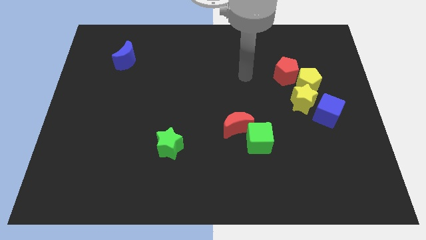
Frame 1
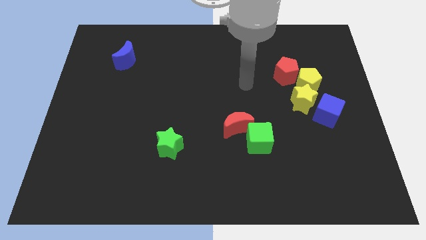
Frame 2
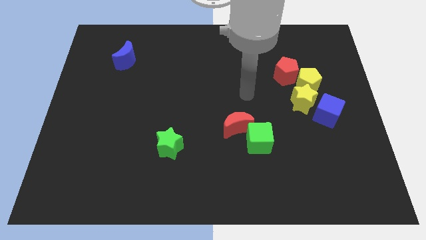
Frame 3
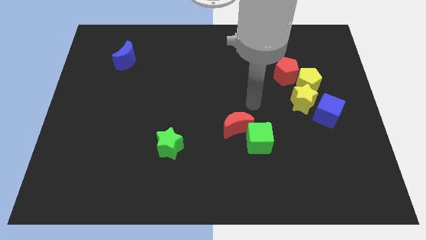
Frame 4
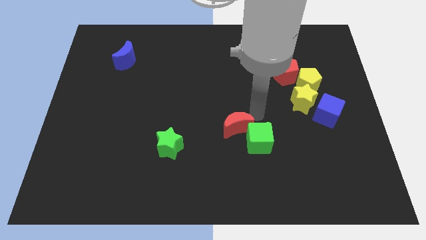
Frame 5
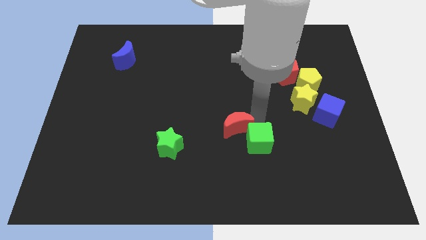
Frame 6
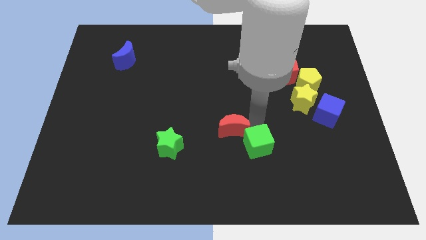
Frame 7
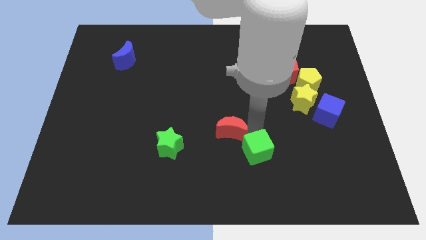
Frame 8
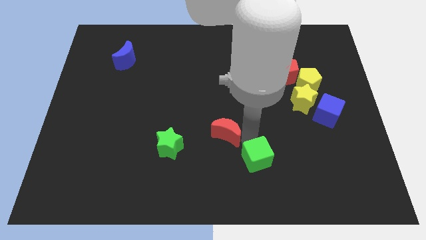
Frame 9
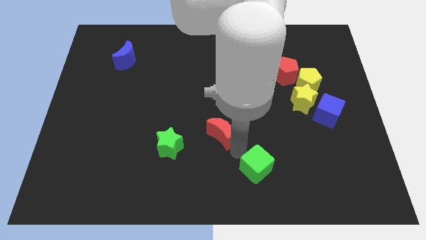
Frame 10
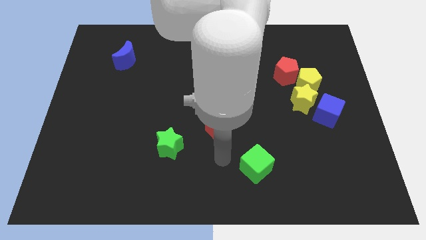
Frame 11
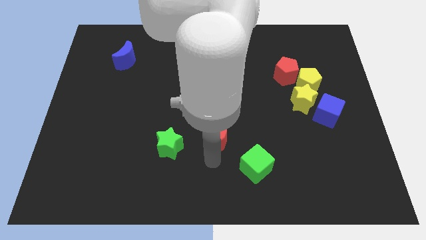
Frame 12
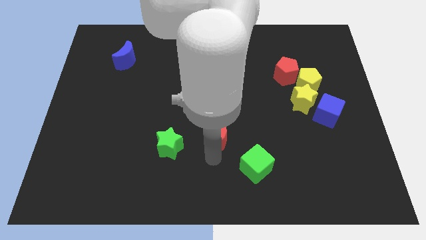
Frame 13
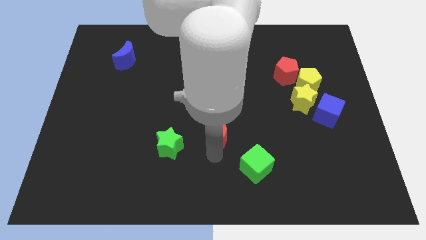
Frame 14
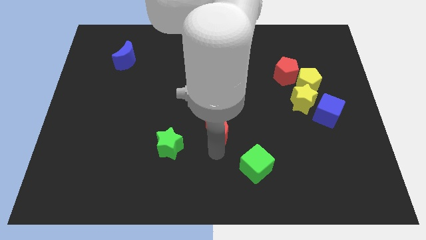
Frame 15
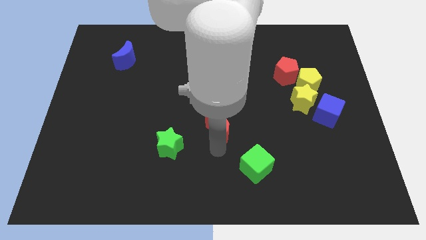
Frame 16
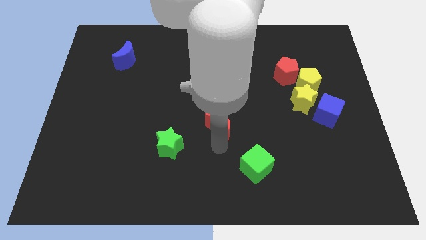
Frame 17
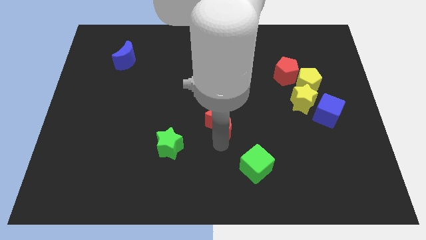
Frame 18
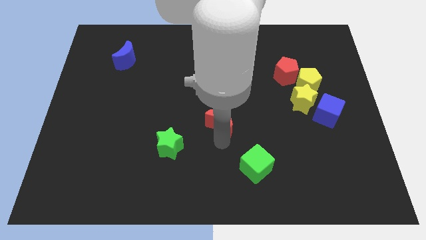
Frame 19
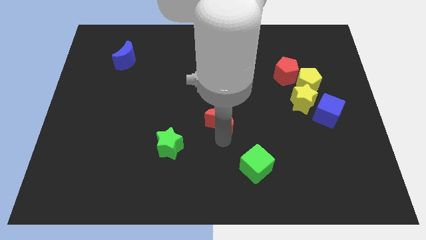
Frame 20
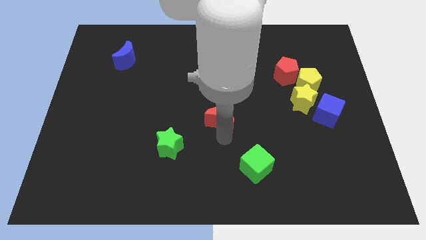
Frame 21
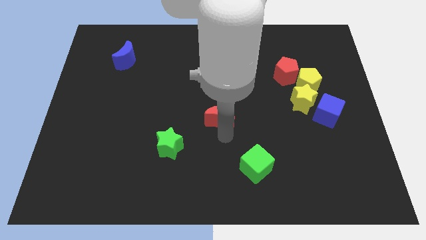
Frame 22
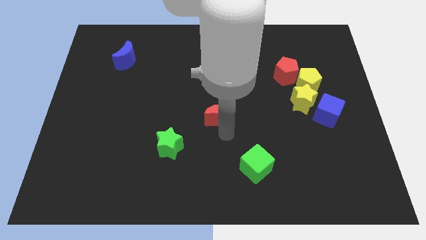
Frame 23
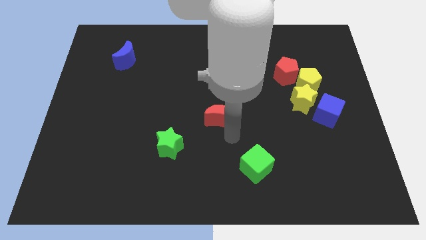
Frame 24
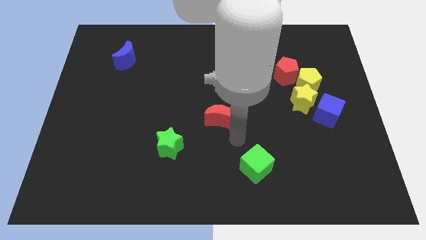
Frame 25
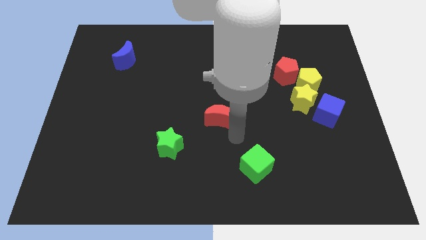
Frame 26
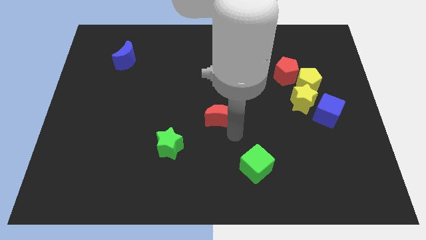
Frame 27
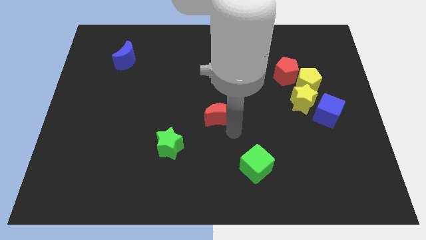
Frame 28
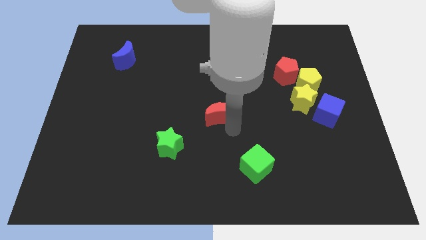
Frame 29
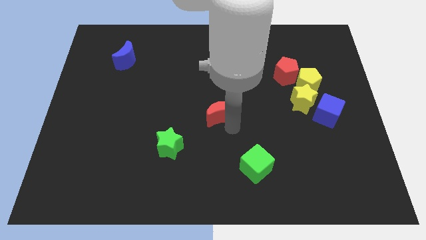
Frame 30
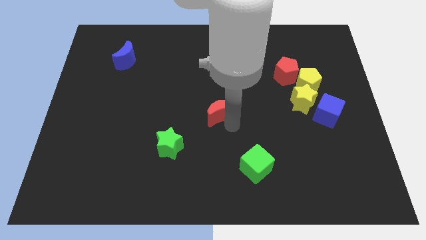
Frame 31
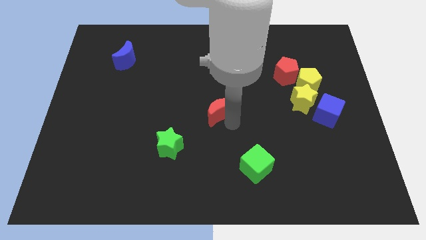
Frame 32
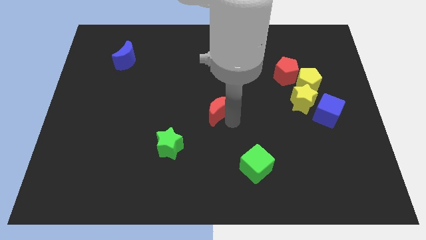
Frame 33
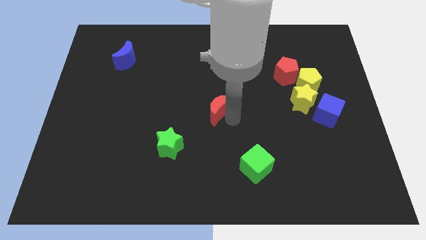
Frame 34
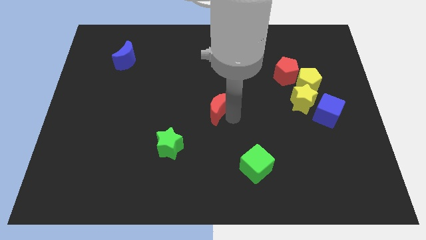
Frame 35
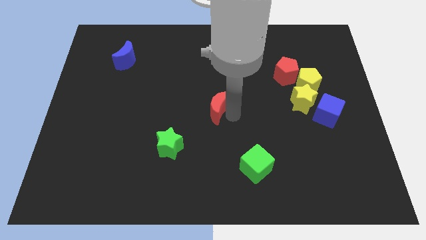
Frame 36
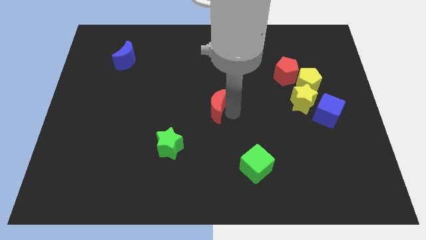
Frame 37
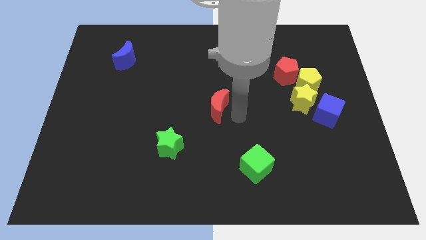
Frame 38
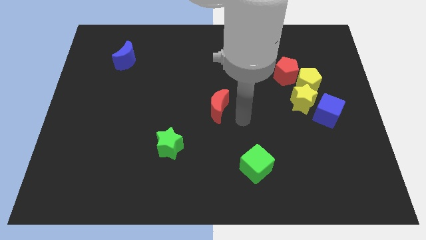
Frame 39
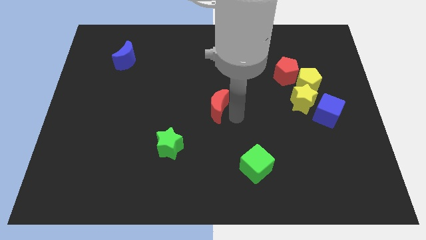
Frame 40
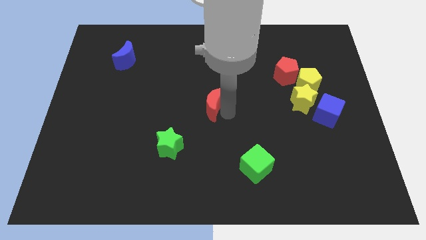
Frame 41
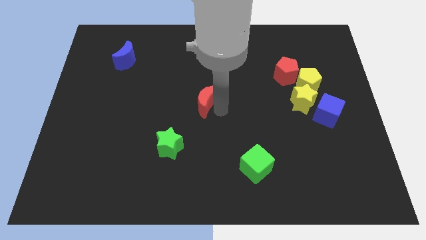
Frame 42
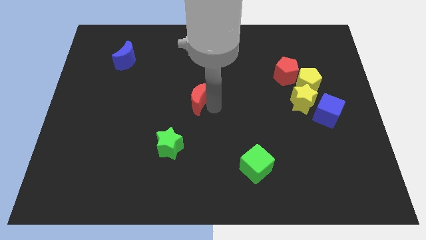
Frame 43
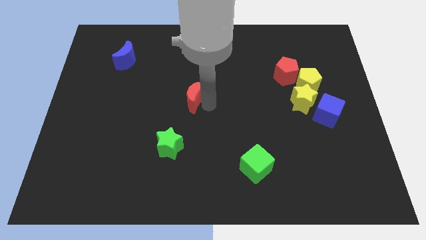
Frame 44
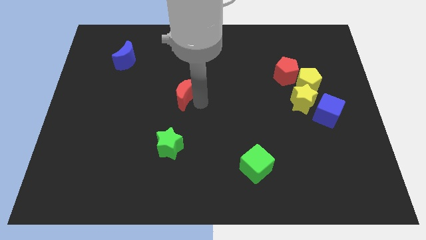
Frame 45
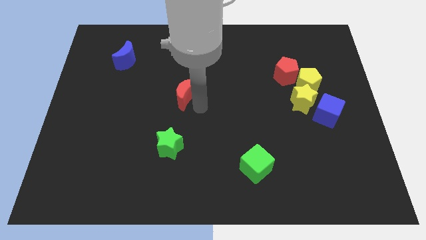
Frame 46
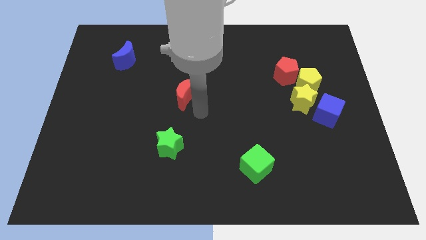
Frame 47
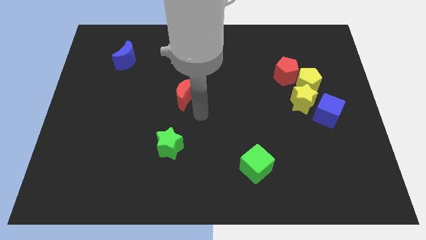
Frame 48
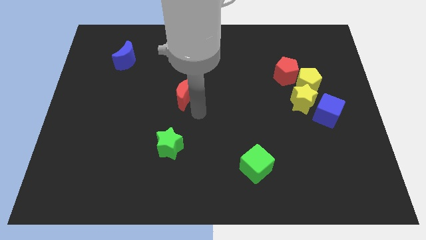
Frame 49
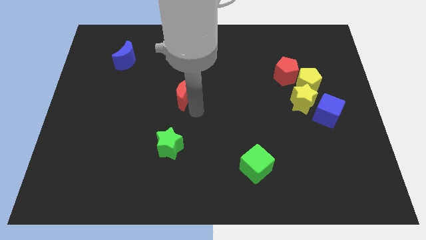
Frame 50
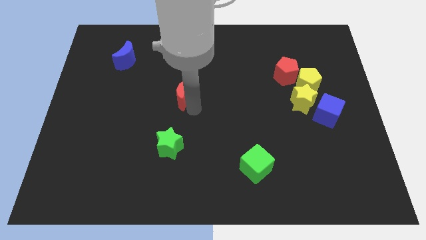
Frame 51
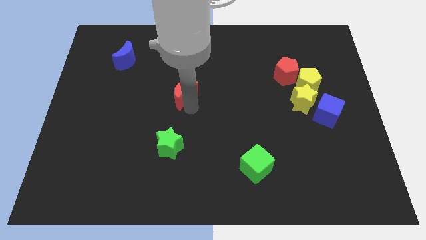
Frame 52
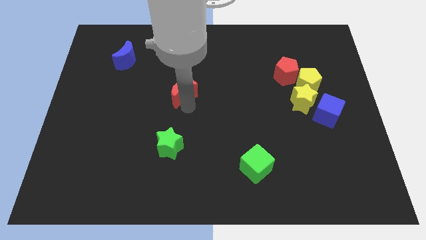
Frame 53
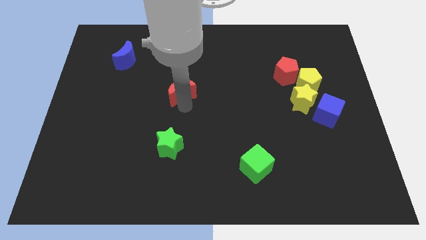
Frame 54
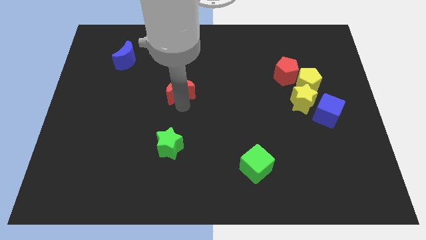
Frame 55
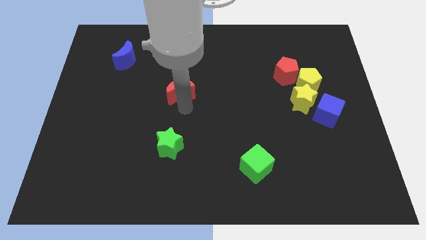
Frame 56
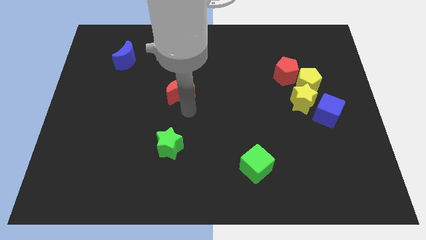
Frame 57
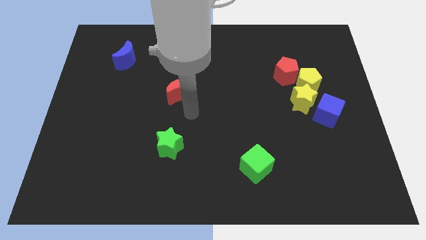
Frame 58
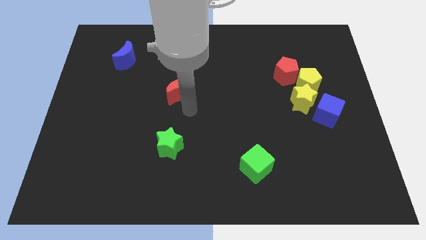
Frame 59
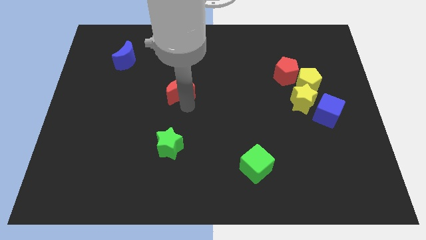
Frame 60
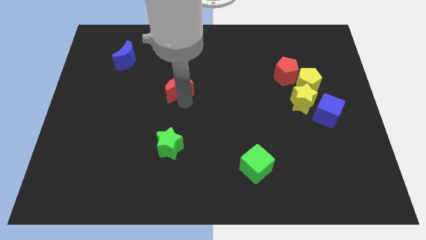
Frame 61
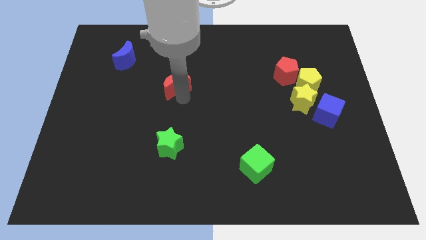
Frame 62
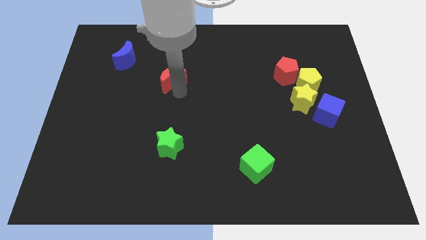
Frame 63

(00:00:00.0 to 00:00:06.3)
slide the red moon up and then left

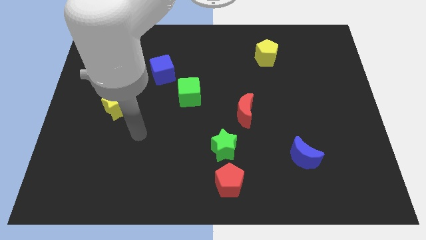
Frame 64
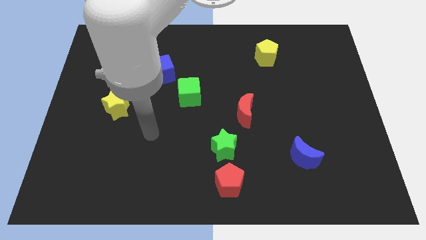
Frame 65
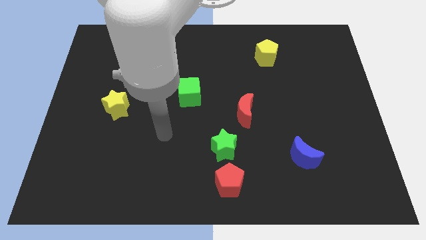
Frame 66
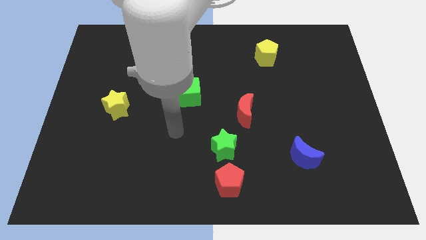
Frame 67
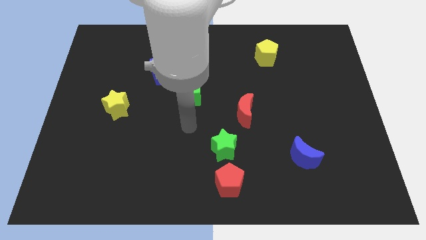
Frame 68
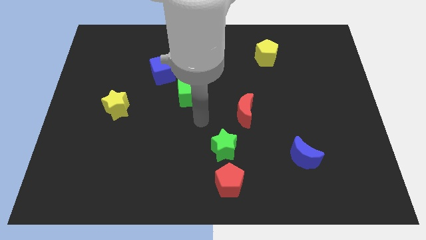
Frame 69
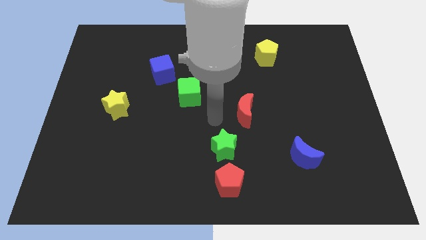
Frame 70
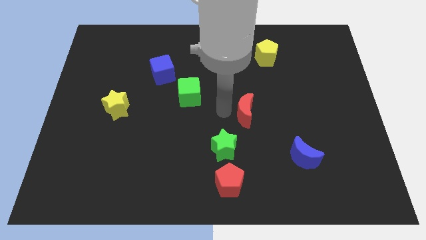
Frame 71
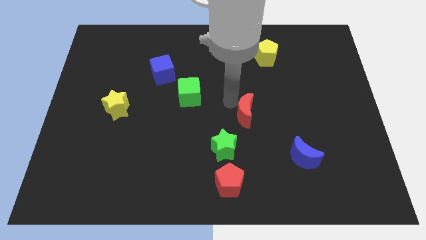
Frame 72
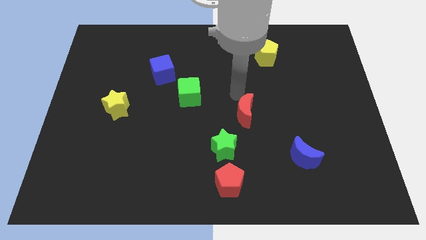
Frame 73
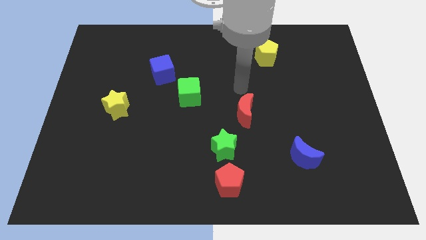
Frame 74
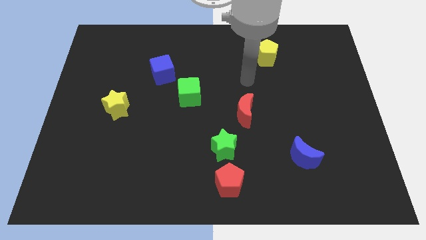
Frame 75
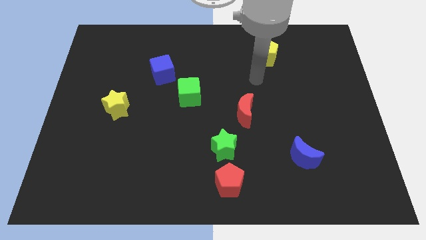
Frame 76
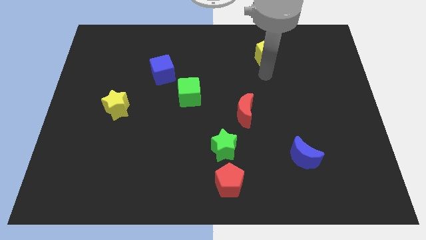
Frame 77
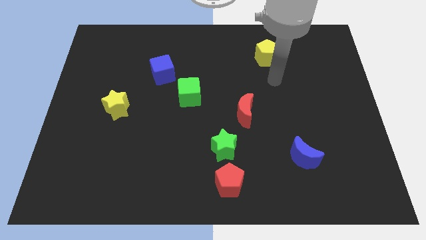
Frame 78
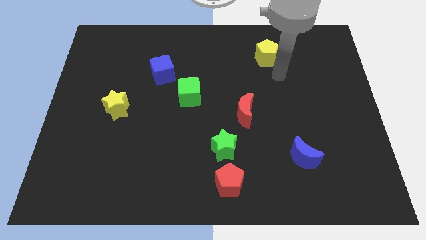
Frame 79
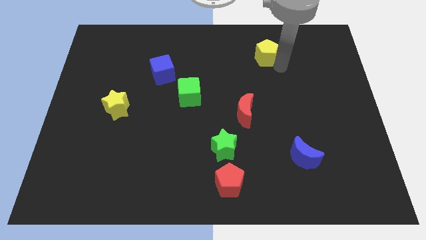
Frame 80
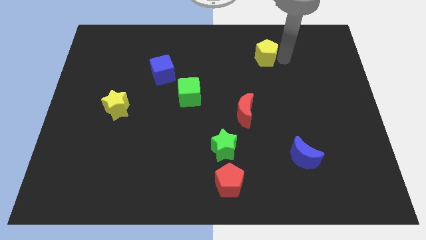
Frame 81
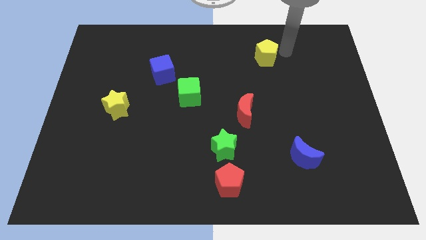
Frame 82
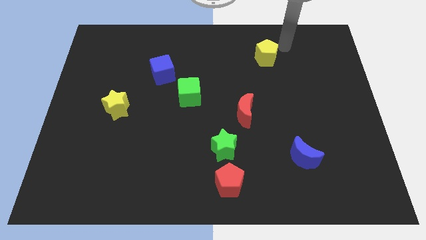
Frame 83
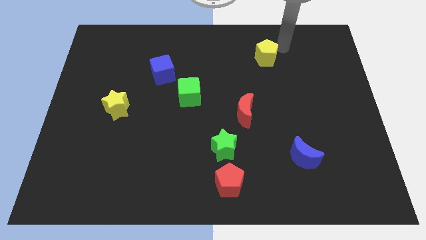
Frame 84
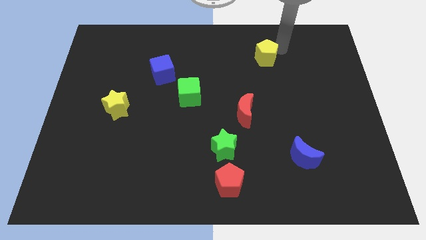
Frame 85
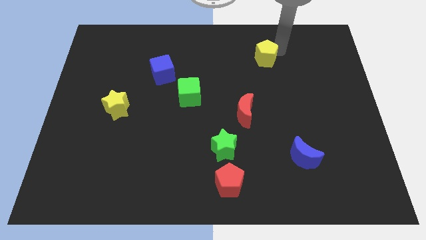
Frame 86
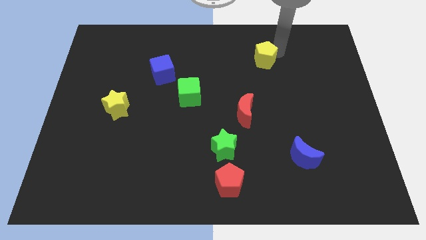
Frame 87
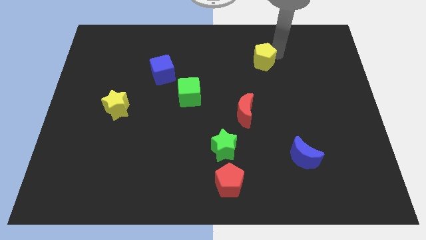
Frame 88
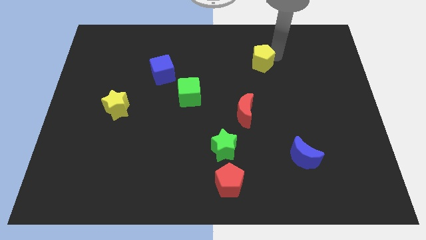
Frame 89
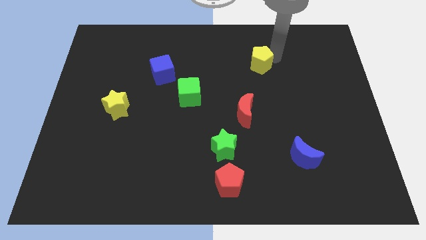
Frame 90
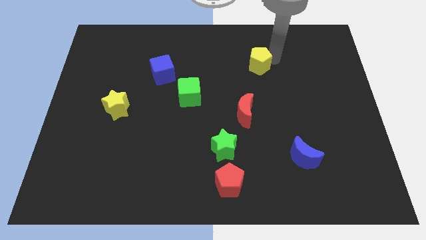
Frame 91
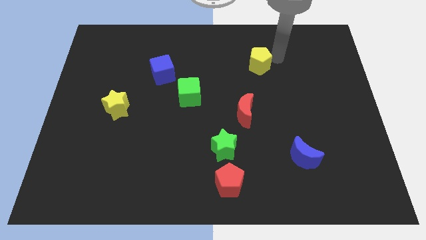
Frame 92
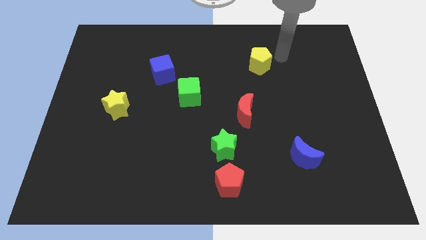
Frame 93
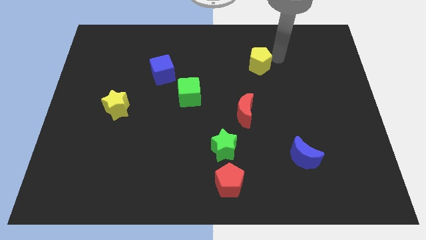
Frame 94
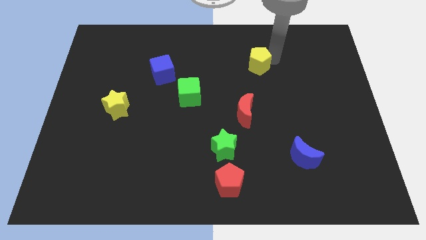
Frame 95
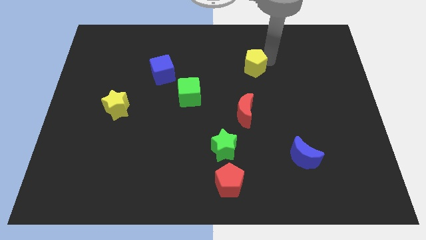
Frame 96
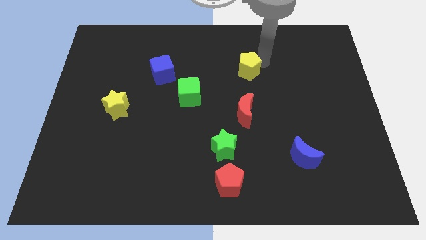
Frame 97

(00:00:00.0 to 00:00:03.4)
move the yellow pentagon a little bit diagonally down and to the left
